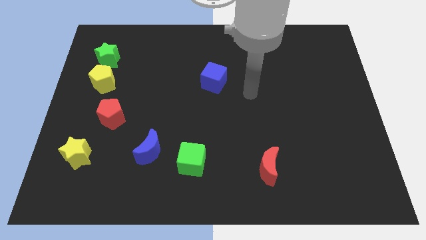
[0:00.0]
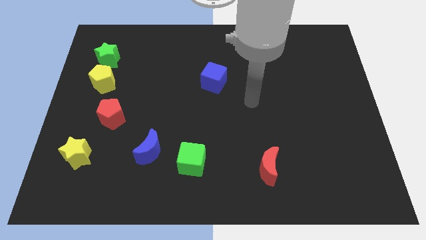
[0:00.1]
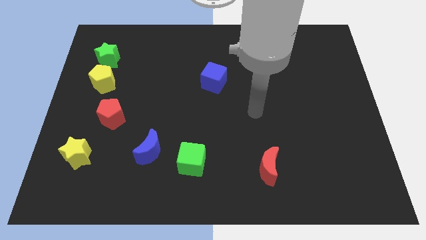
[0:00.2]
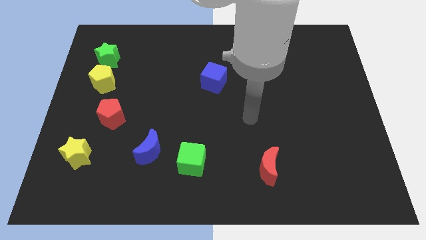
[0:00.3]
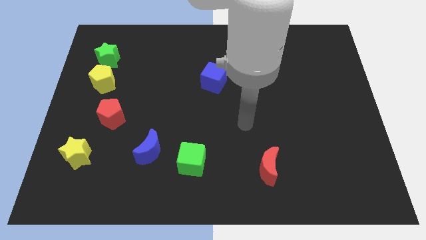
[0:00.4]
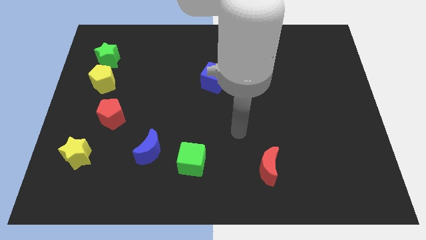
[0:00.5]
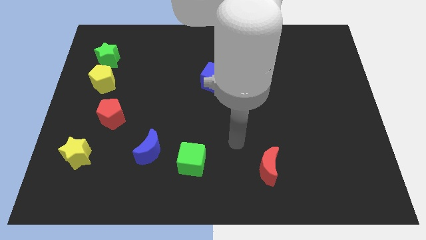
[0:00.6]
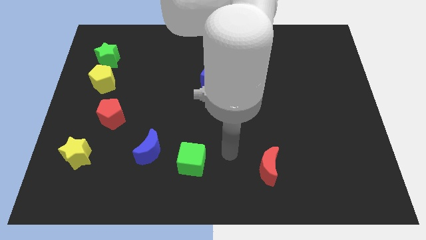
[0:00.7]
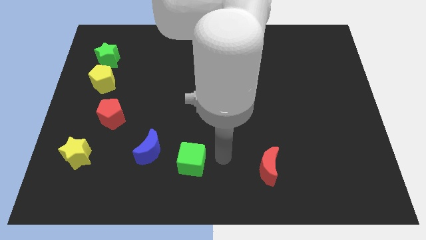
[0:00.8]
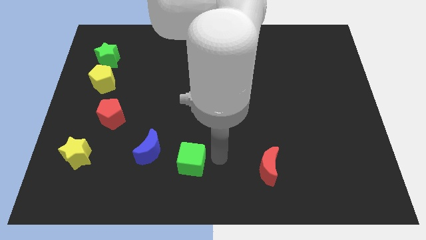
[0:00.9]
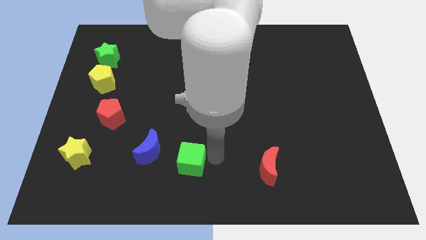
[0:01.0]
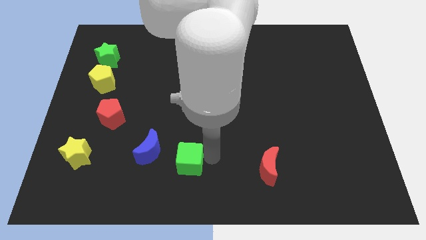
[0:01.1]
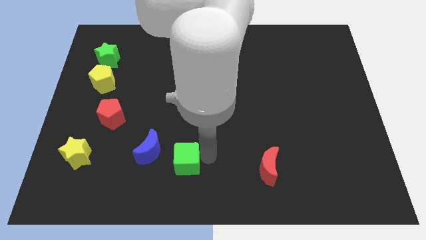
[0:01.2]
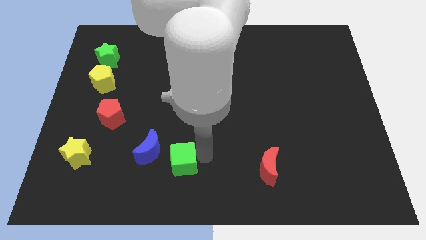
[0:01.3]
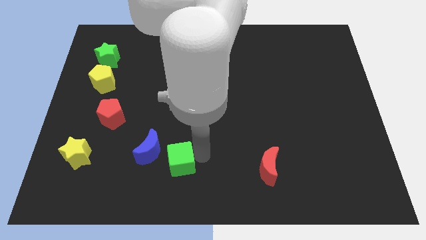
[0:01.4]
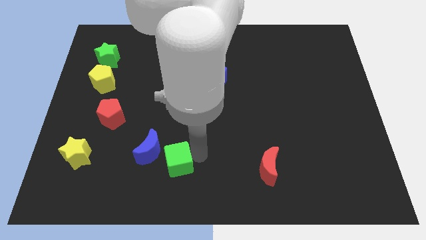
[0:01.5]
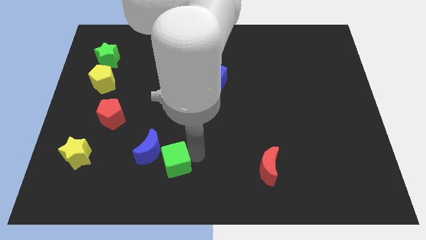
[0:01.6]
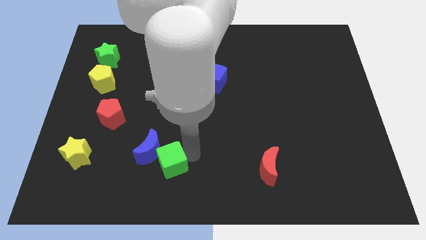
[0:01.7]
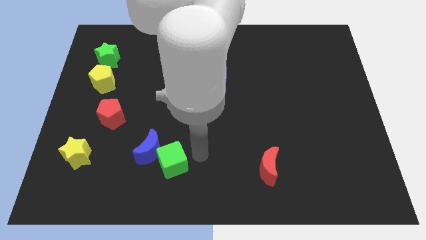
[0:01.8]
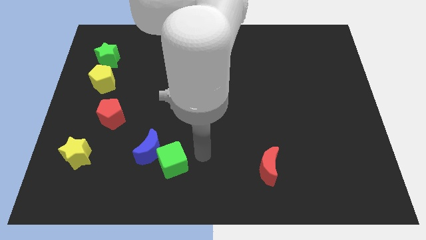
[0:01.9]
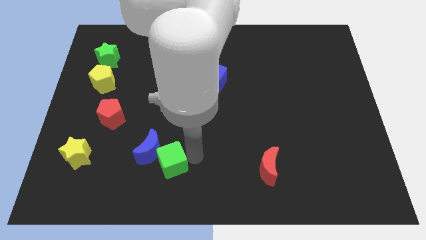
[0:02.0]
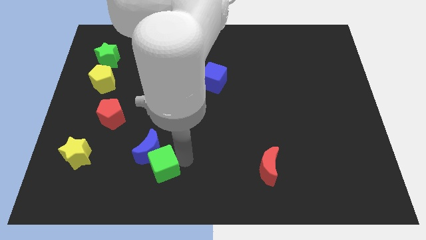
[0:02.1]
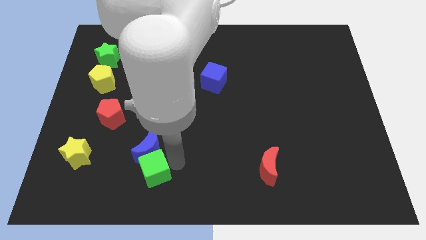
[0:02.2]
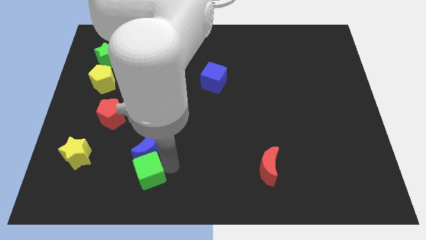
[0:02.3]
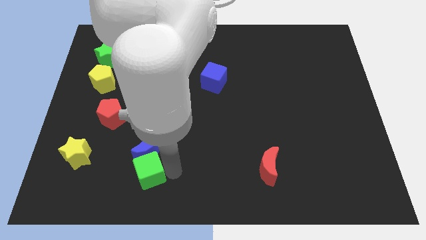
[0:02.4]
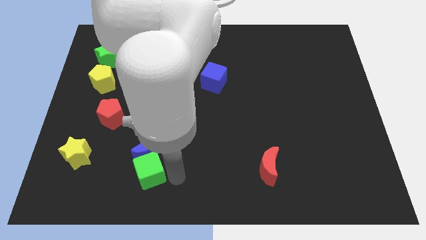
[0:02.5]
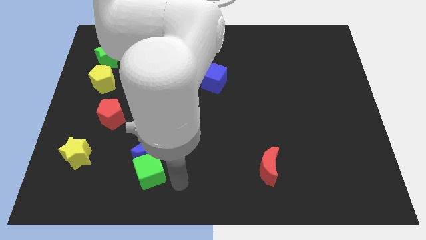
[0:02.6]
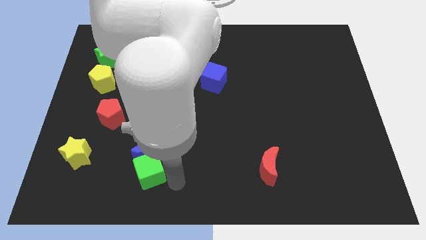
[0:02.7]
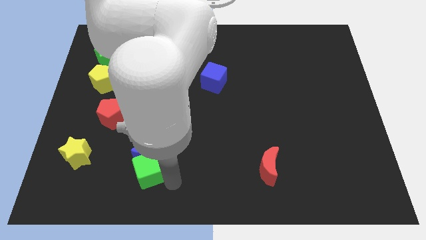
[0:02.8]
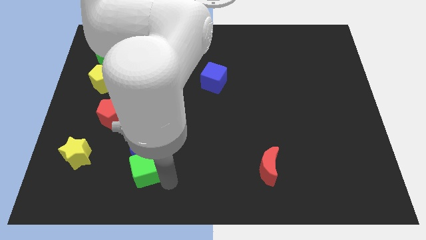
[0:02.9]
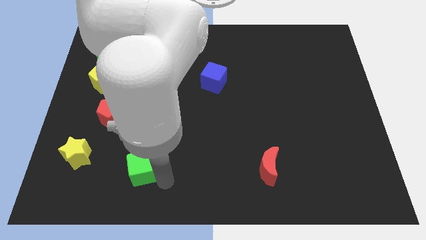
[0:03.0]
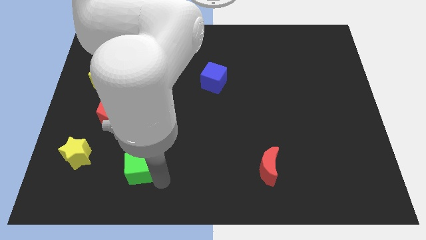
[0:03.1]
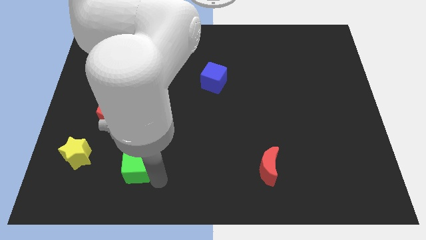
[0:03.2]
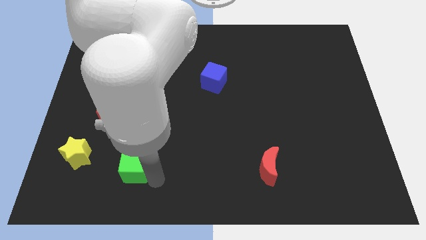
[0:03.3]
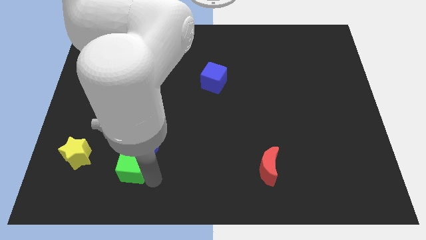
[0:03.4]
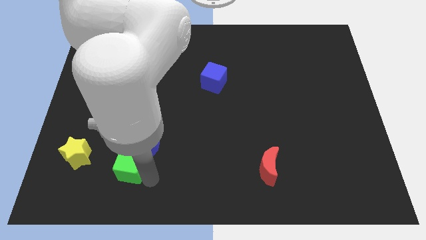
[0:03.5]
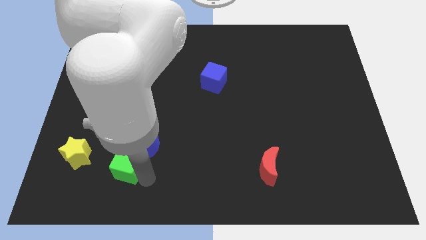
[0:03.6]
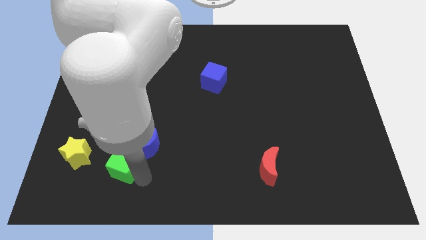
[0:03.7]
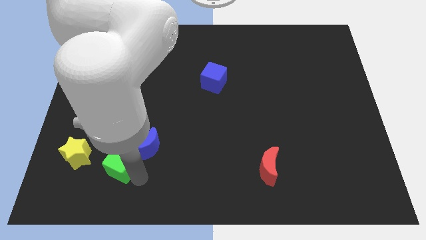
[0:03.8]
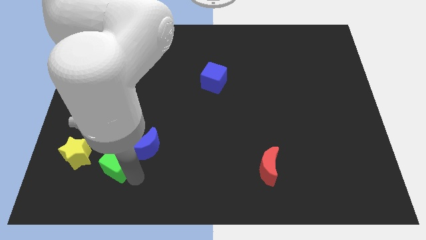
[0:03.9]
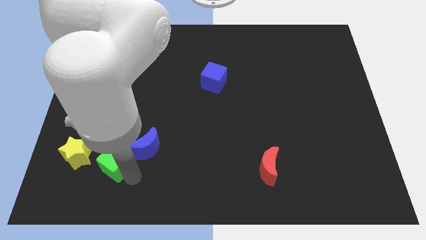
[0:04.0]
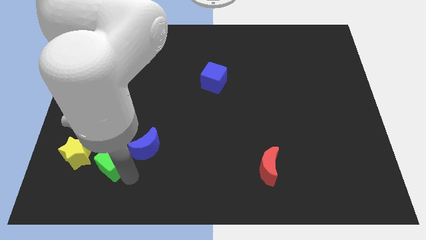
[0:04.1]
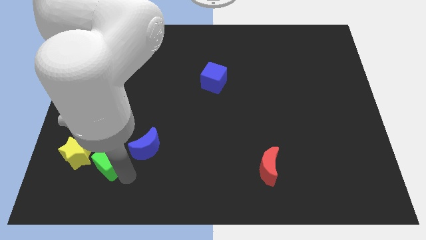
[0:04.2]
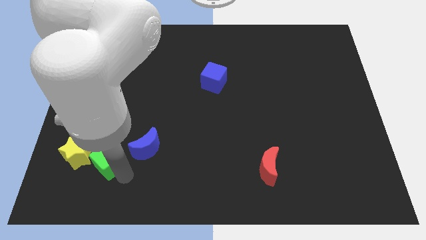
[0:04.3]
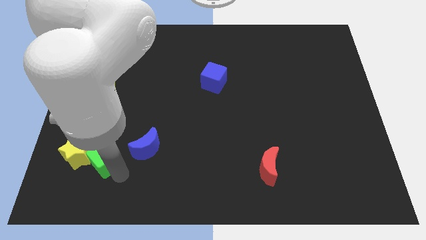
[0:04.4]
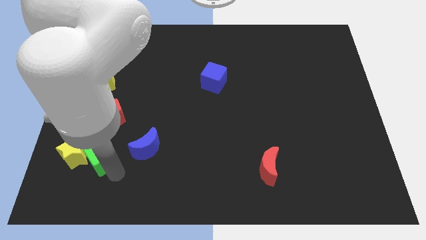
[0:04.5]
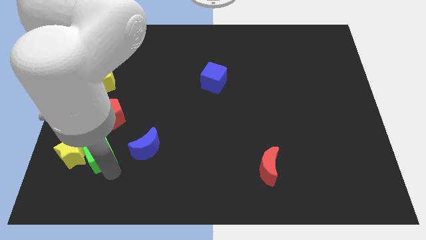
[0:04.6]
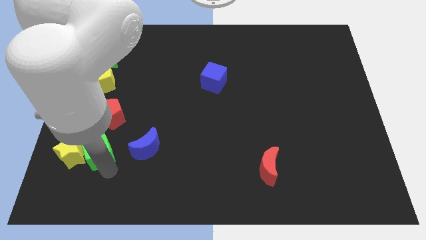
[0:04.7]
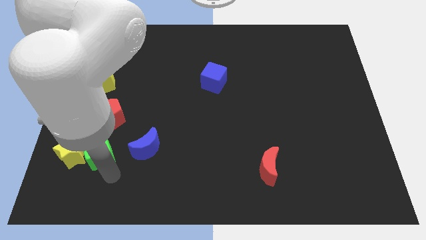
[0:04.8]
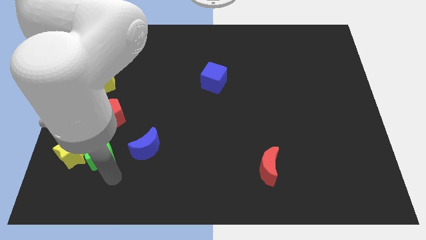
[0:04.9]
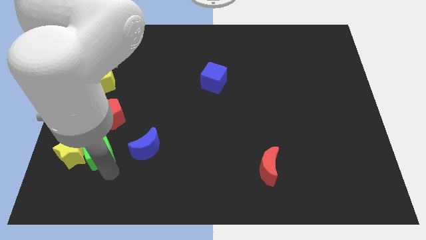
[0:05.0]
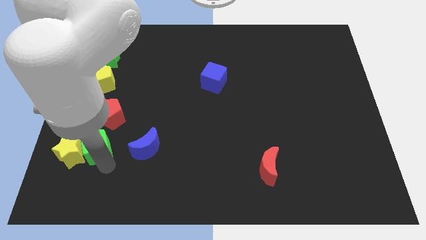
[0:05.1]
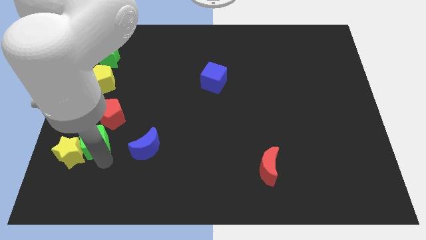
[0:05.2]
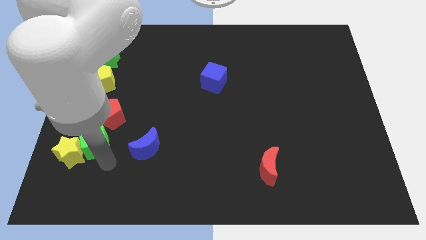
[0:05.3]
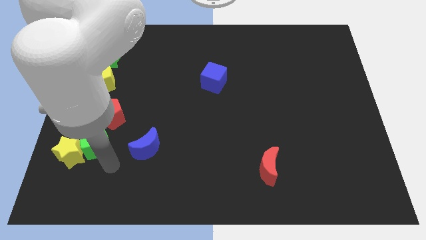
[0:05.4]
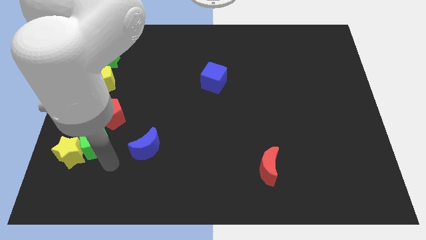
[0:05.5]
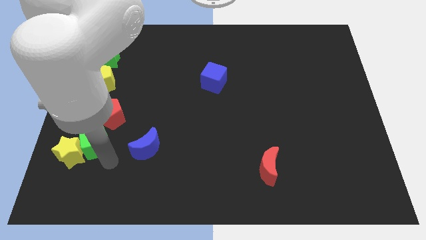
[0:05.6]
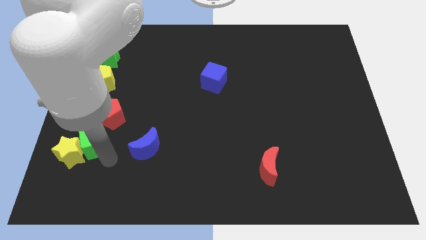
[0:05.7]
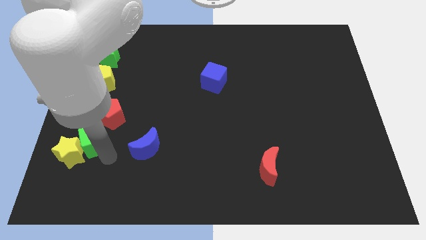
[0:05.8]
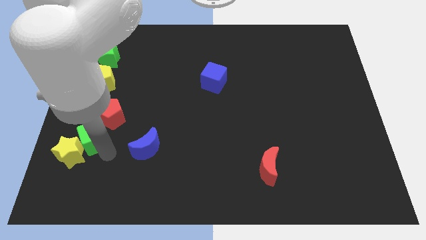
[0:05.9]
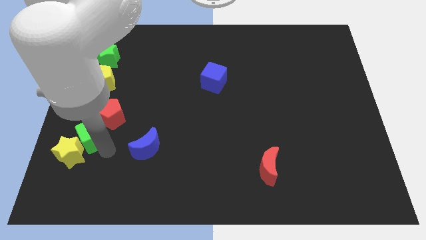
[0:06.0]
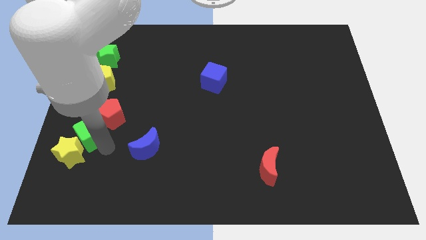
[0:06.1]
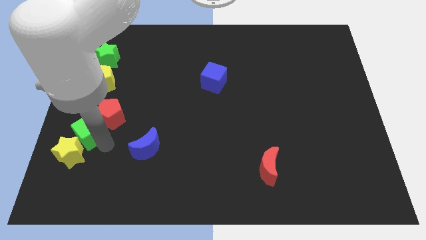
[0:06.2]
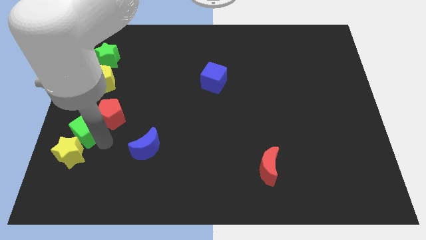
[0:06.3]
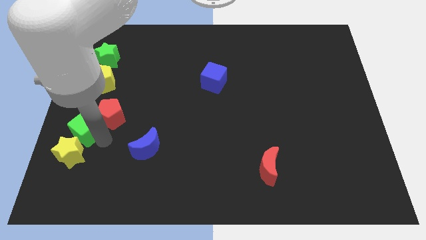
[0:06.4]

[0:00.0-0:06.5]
move the green cube to the left side

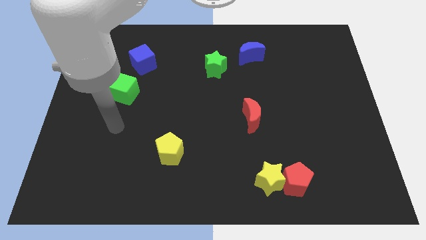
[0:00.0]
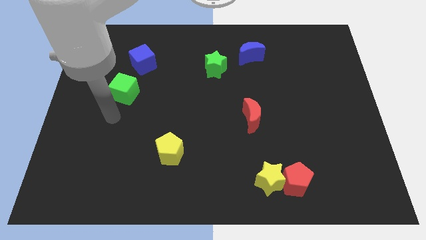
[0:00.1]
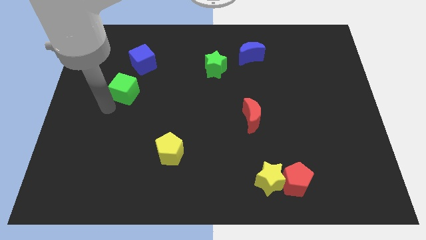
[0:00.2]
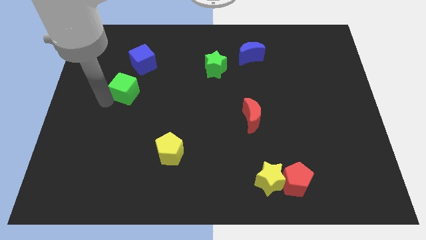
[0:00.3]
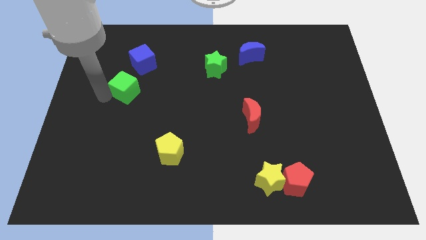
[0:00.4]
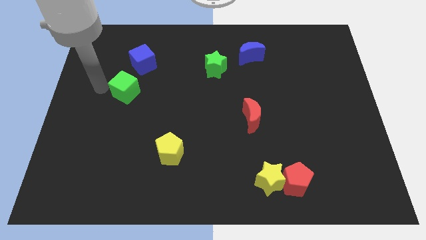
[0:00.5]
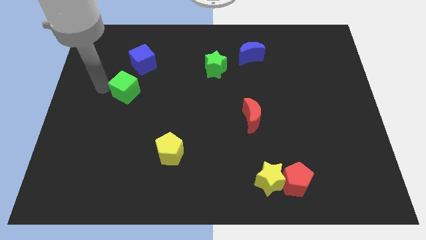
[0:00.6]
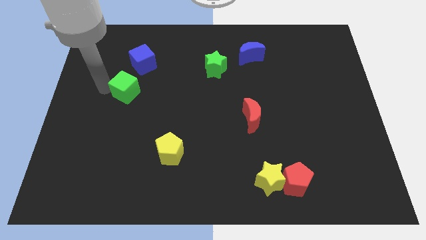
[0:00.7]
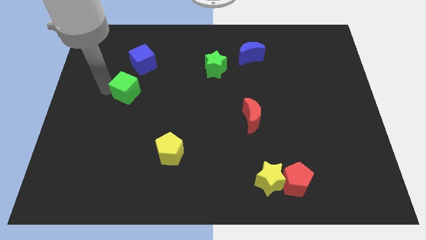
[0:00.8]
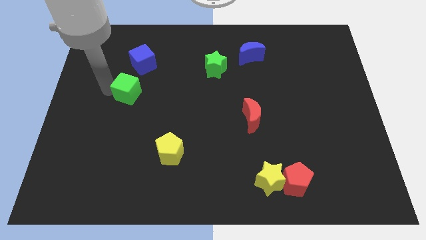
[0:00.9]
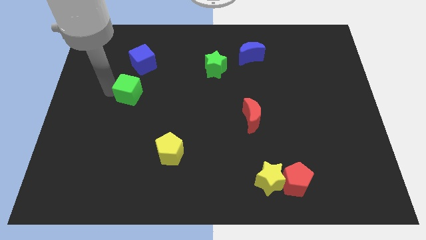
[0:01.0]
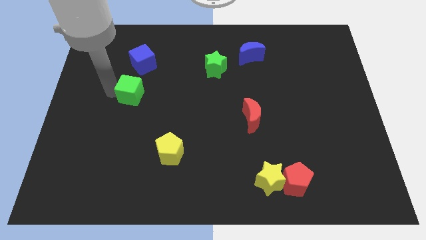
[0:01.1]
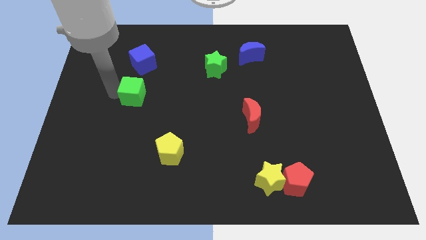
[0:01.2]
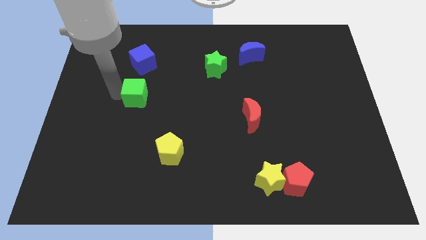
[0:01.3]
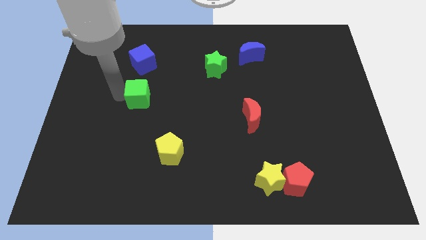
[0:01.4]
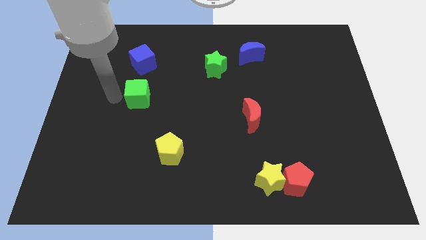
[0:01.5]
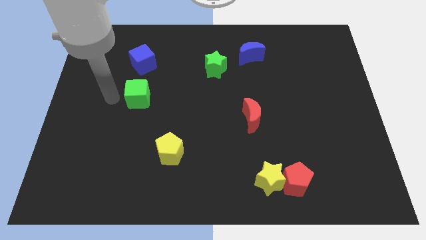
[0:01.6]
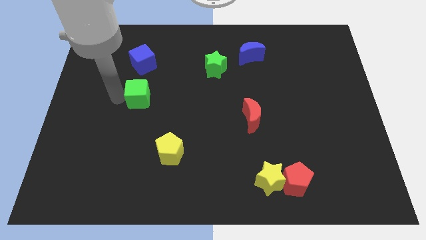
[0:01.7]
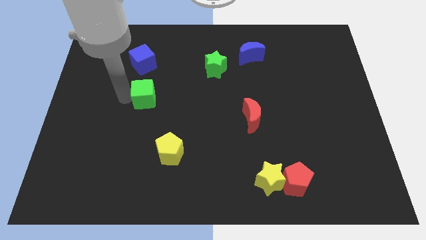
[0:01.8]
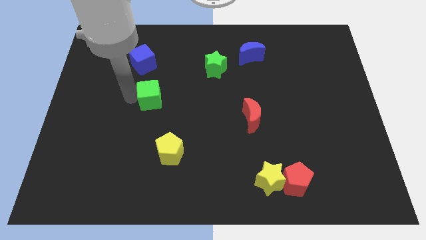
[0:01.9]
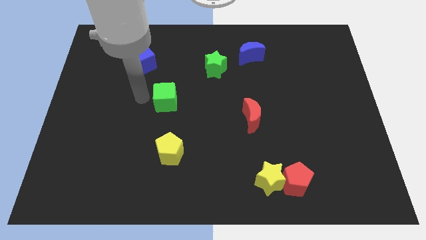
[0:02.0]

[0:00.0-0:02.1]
slide the green cube to the center of the board
